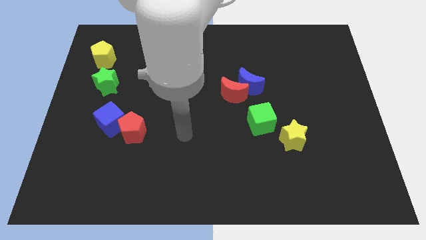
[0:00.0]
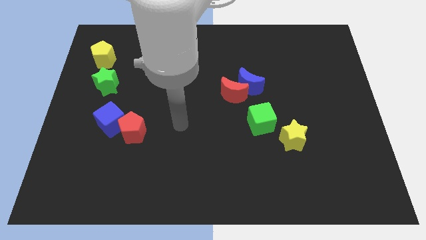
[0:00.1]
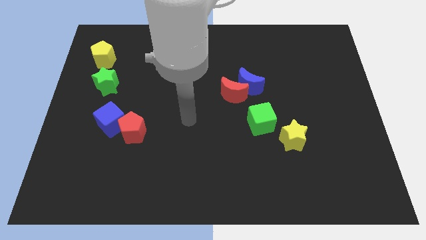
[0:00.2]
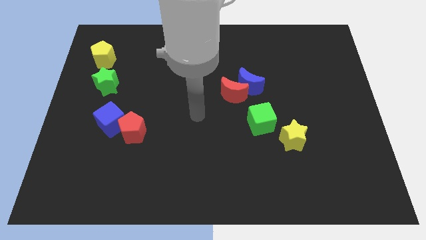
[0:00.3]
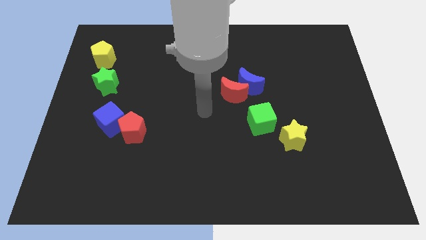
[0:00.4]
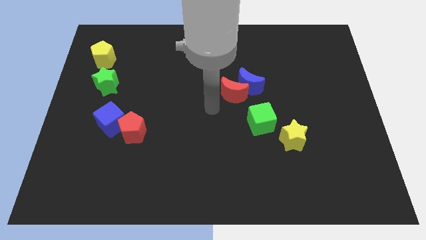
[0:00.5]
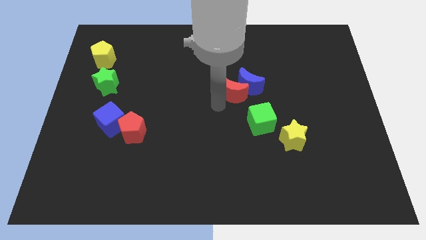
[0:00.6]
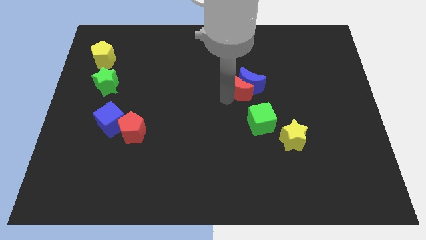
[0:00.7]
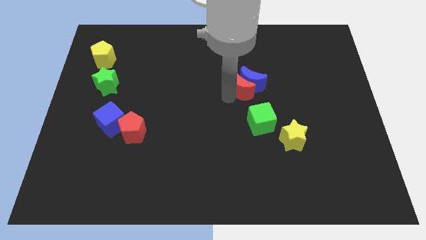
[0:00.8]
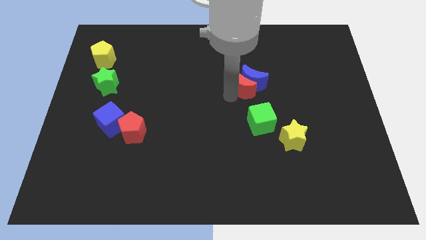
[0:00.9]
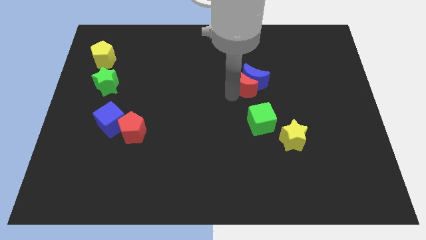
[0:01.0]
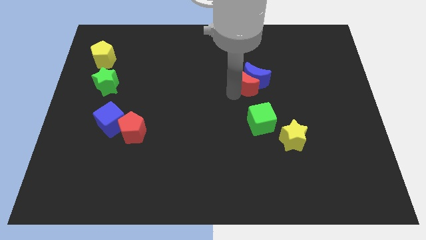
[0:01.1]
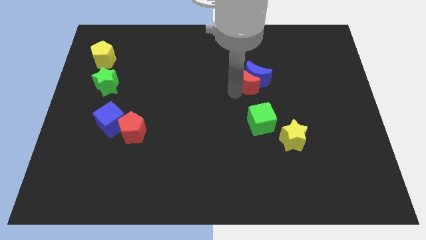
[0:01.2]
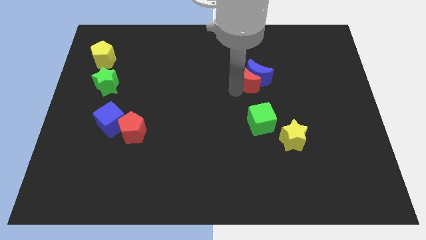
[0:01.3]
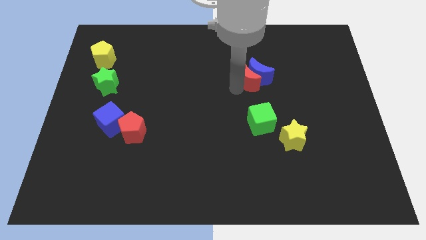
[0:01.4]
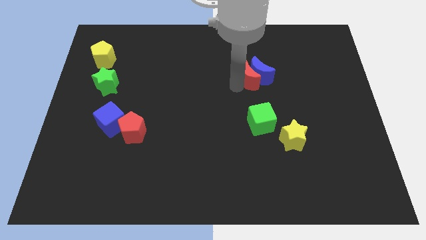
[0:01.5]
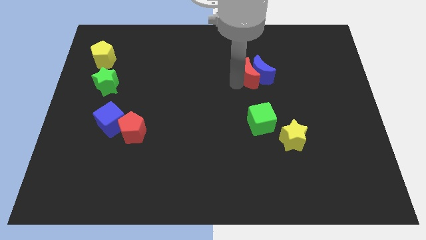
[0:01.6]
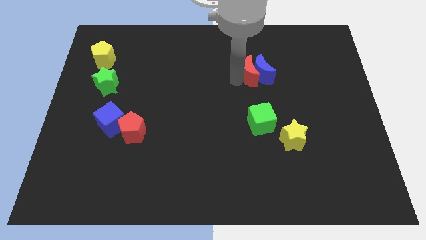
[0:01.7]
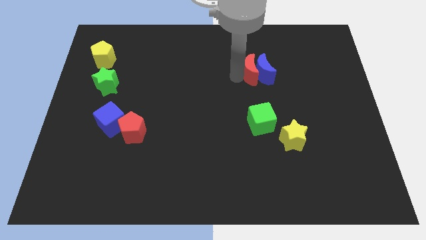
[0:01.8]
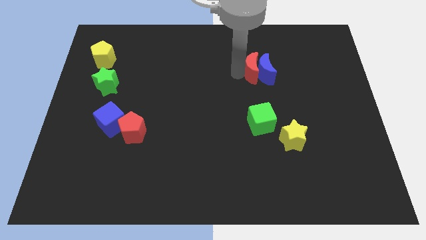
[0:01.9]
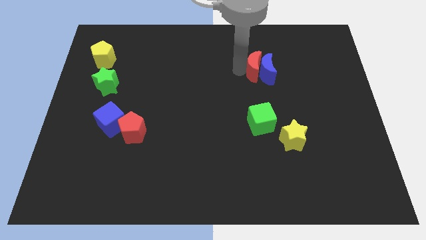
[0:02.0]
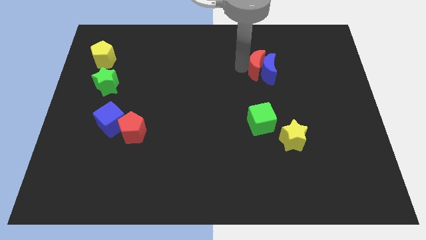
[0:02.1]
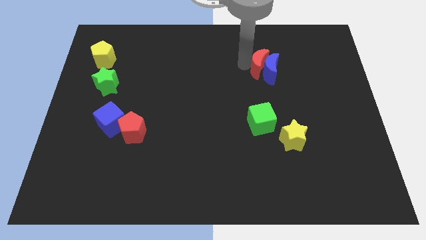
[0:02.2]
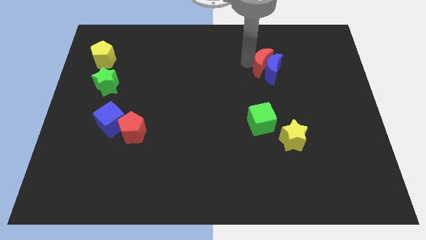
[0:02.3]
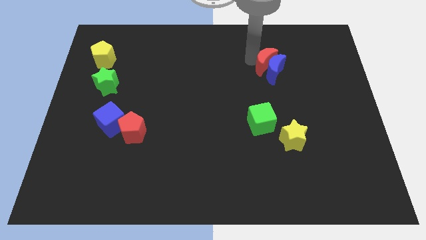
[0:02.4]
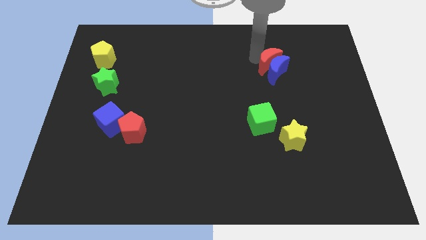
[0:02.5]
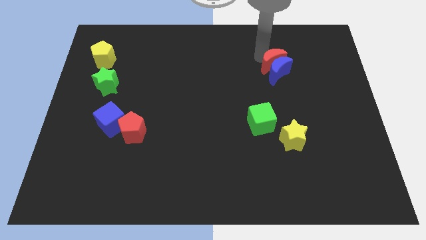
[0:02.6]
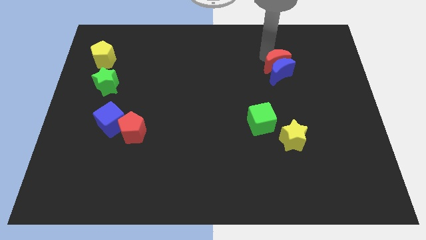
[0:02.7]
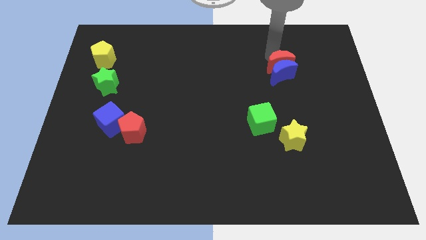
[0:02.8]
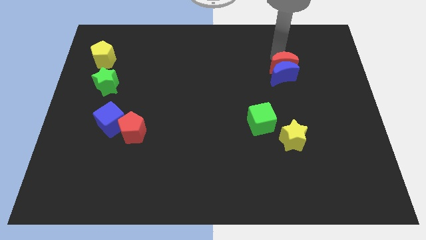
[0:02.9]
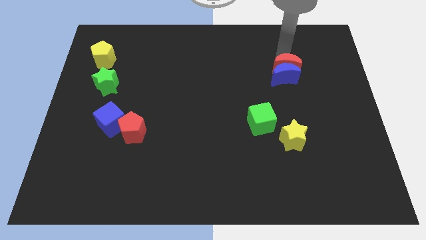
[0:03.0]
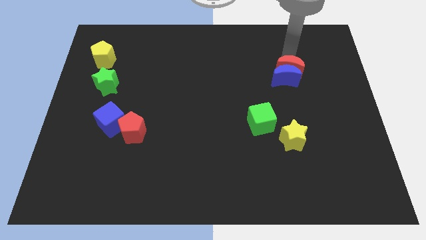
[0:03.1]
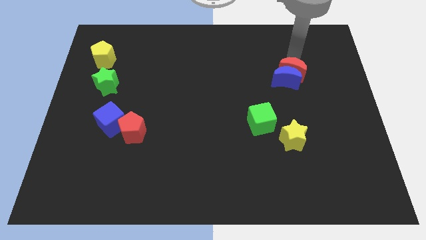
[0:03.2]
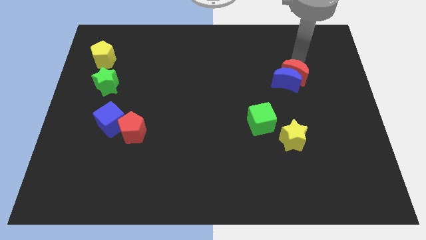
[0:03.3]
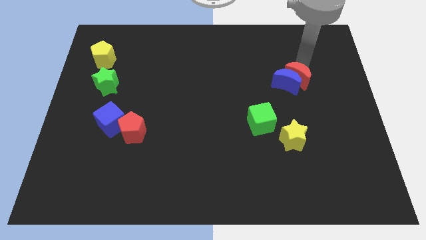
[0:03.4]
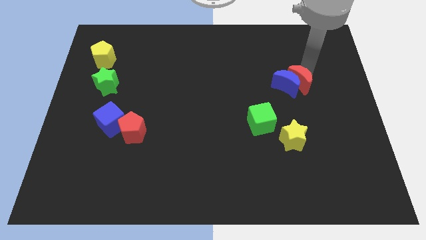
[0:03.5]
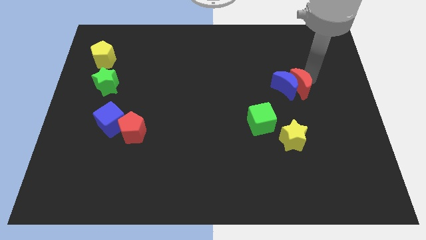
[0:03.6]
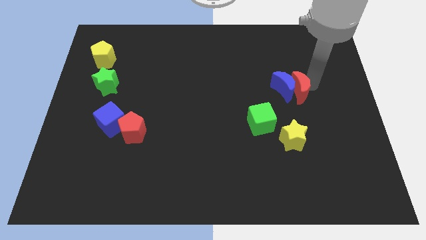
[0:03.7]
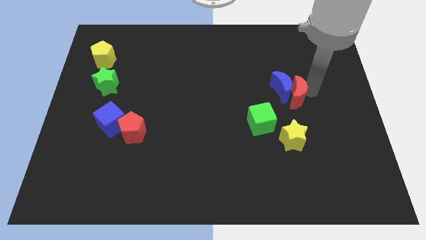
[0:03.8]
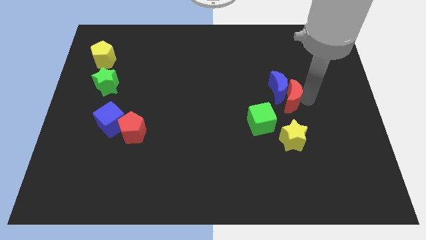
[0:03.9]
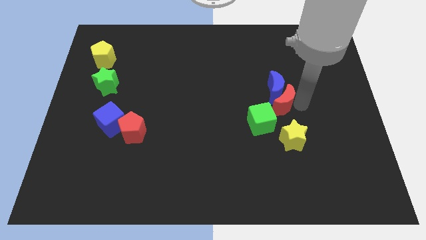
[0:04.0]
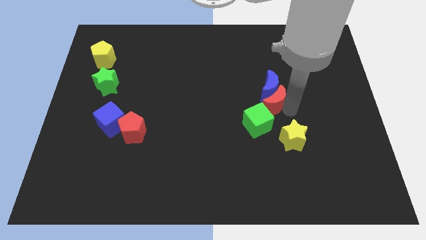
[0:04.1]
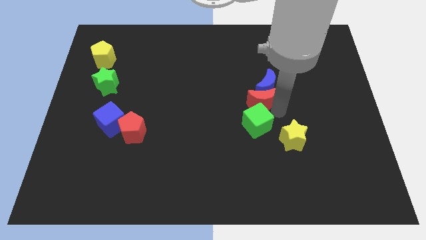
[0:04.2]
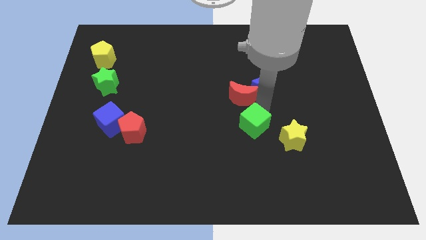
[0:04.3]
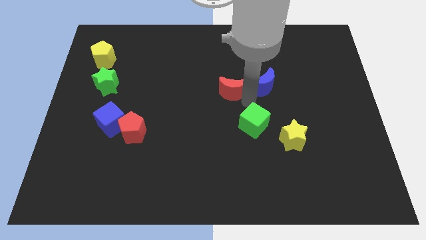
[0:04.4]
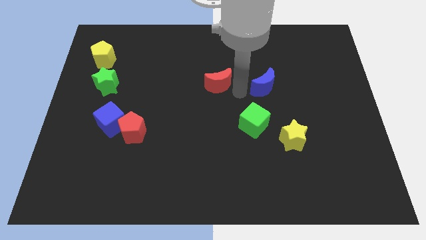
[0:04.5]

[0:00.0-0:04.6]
pull the blue moon apart from the red moon

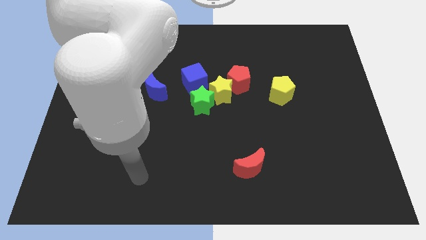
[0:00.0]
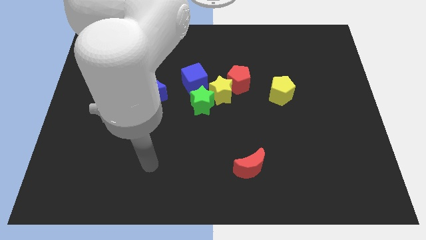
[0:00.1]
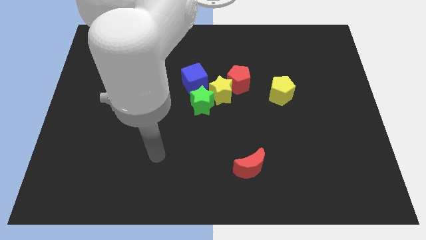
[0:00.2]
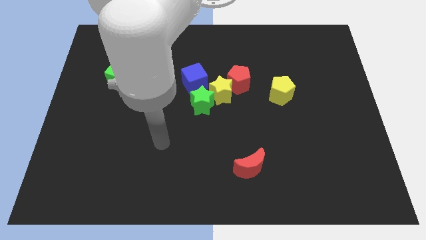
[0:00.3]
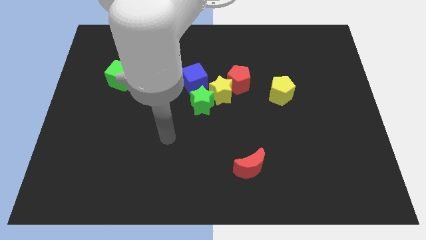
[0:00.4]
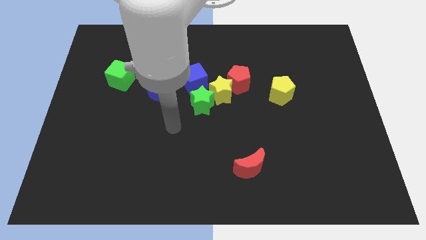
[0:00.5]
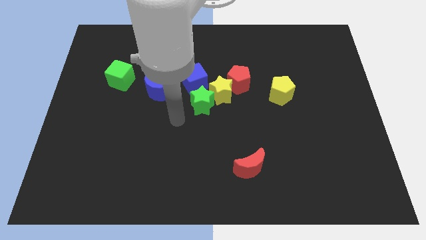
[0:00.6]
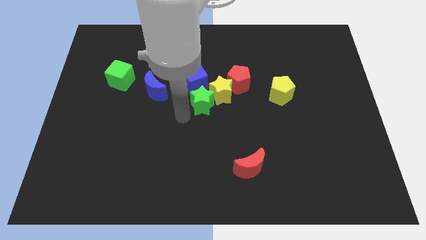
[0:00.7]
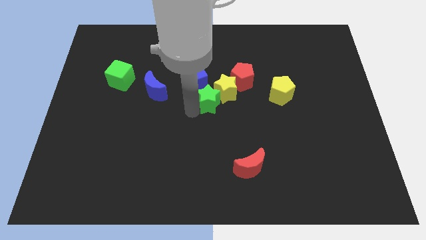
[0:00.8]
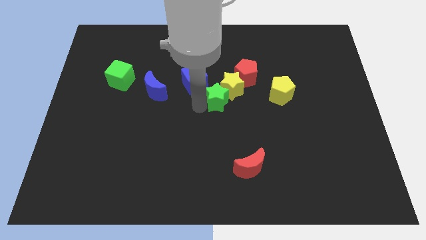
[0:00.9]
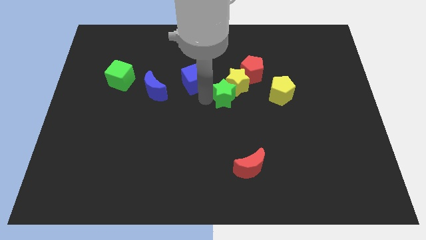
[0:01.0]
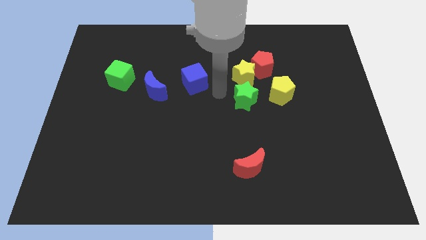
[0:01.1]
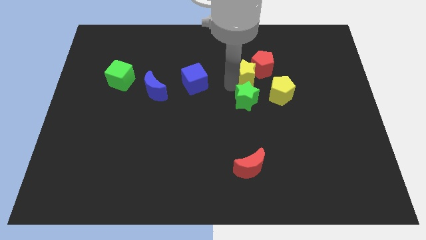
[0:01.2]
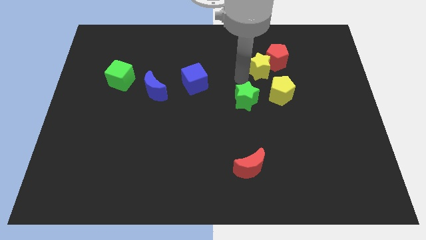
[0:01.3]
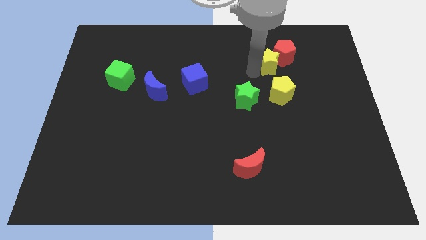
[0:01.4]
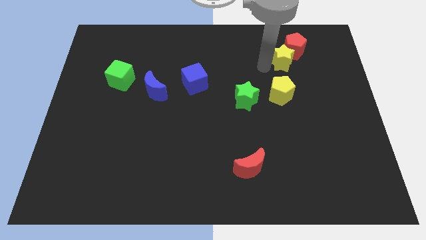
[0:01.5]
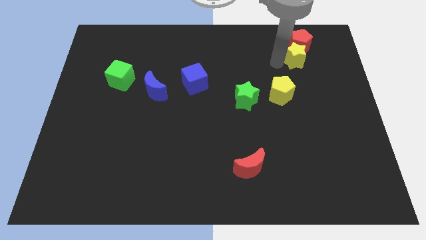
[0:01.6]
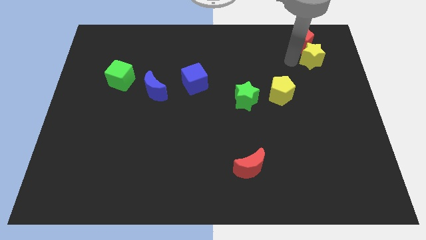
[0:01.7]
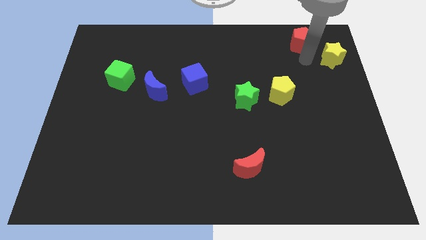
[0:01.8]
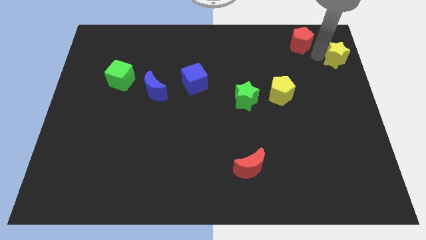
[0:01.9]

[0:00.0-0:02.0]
move the red pentagon away from the yellow star

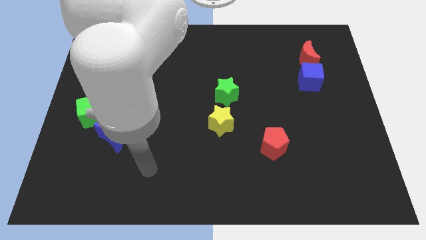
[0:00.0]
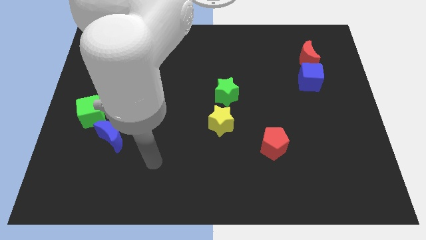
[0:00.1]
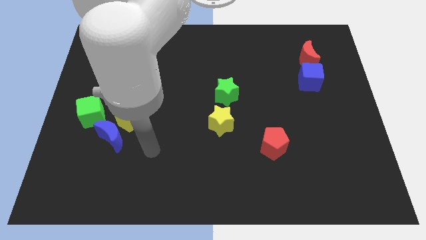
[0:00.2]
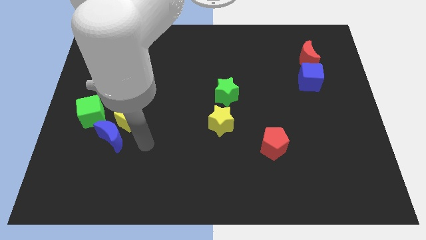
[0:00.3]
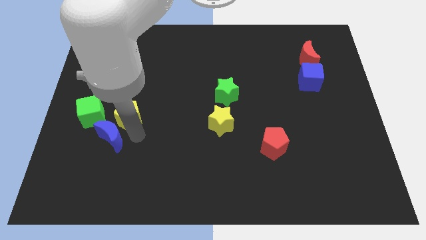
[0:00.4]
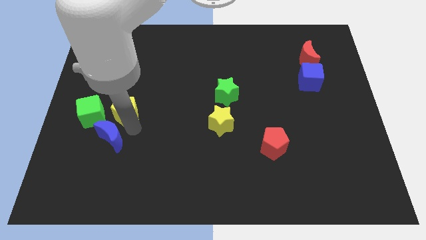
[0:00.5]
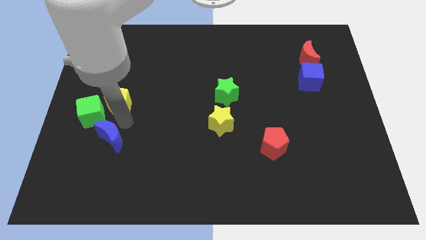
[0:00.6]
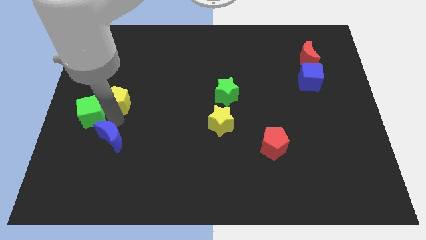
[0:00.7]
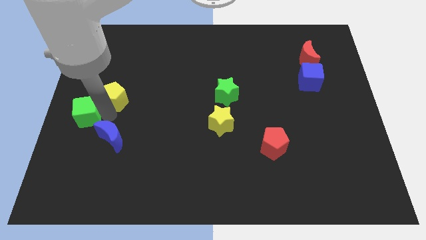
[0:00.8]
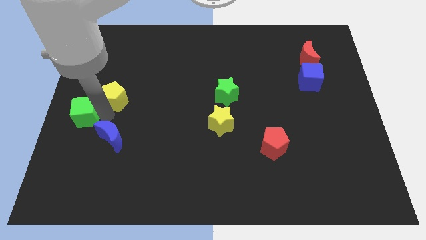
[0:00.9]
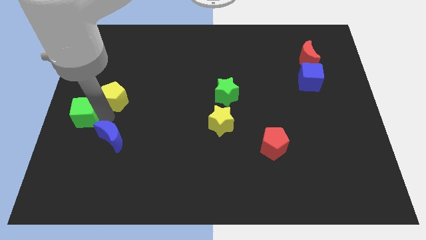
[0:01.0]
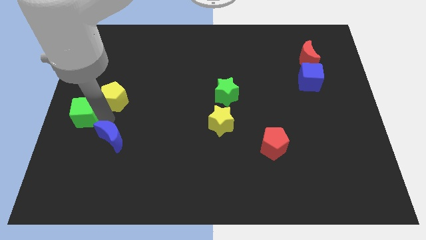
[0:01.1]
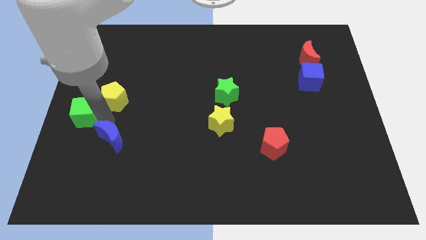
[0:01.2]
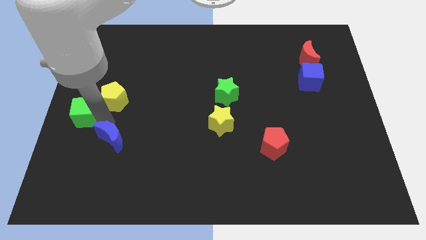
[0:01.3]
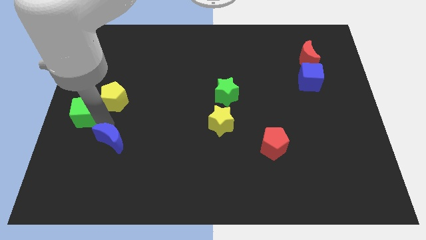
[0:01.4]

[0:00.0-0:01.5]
pull the blue moon apart from the yellow pentagon and green cube

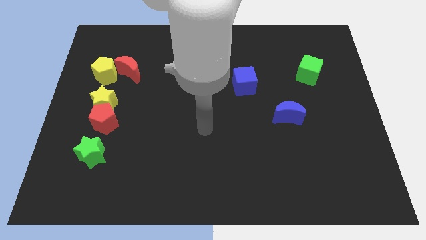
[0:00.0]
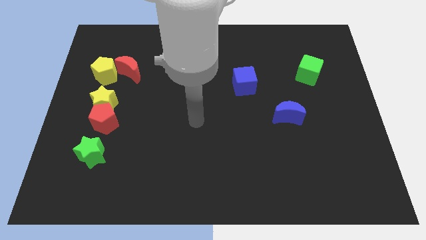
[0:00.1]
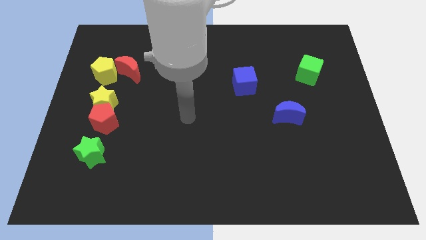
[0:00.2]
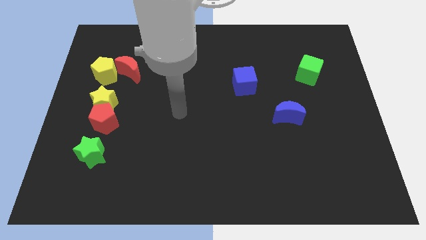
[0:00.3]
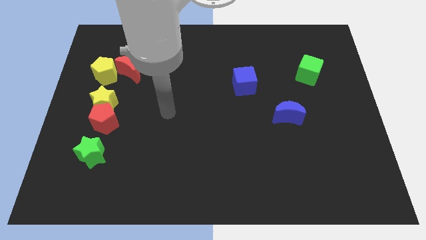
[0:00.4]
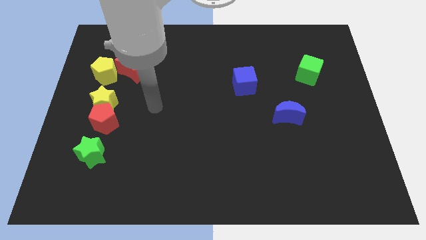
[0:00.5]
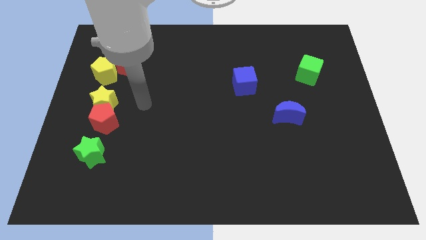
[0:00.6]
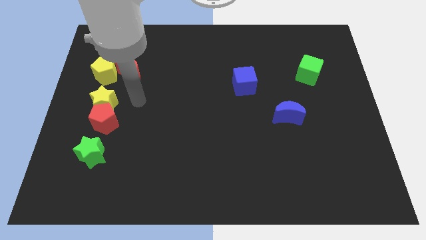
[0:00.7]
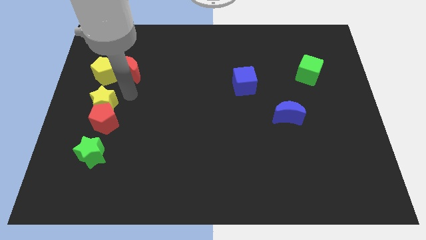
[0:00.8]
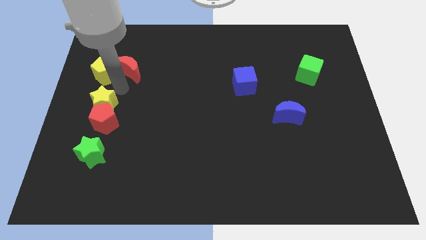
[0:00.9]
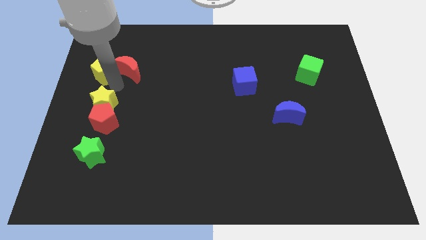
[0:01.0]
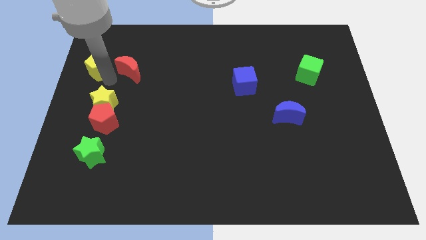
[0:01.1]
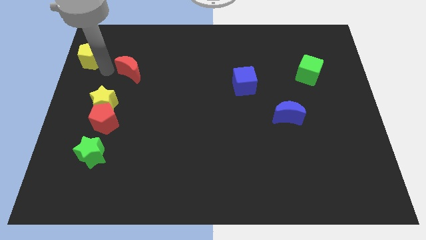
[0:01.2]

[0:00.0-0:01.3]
move the red moon away from the yellow pentagon
